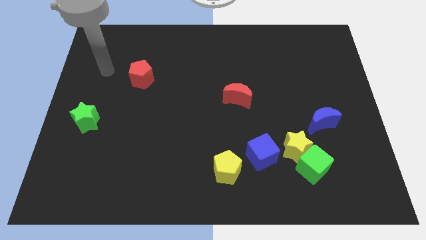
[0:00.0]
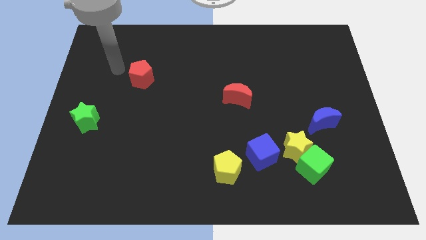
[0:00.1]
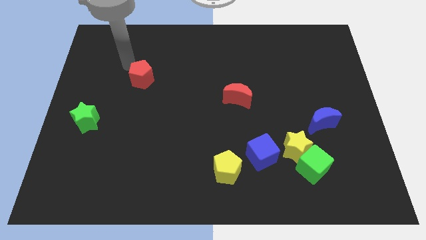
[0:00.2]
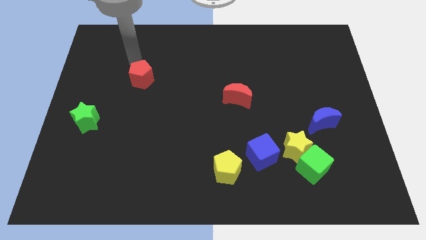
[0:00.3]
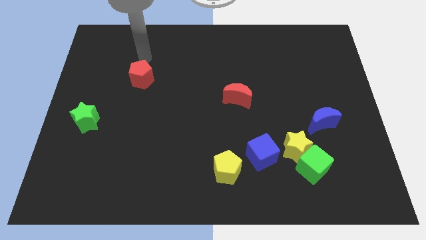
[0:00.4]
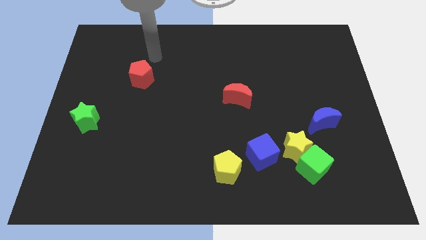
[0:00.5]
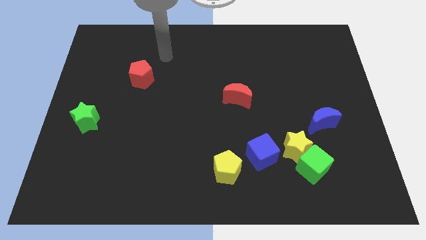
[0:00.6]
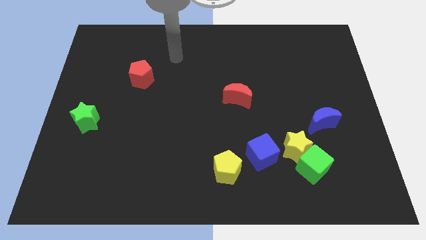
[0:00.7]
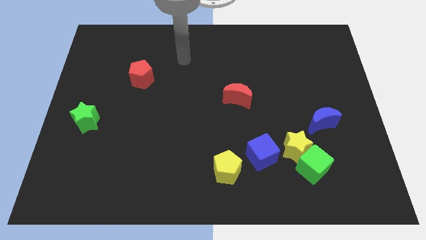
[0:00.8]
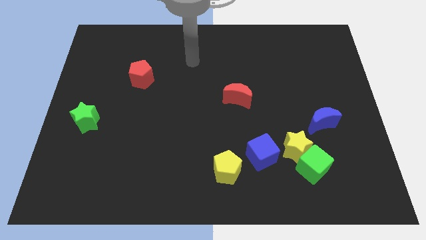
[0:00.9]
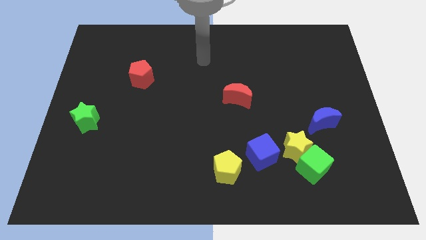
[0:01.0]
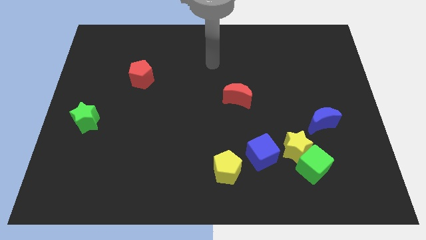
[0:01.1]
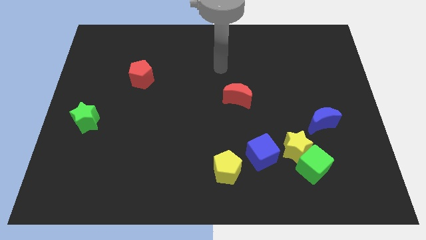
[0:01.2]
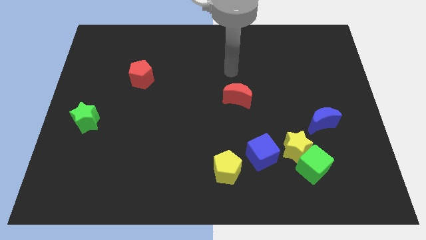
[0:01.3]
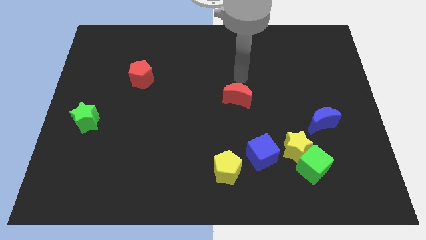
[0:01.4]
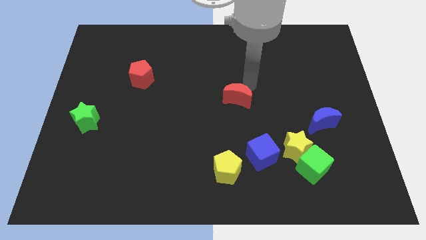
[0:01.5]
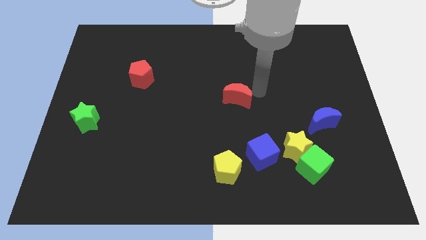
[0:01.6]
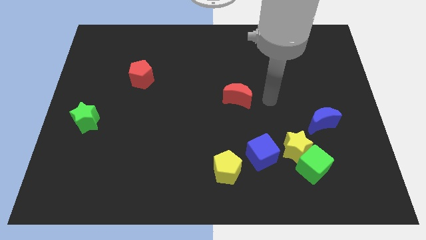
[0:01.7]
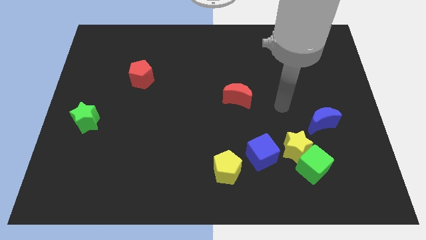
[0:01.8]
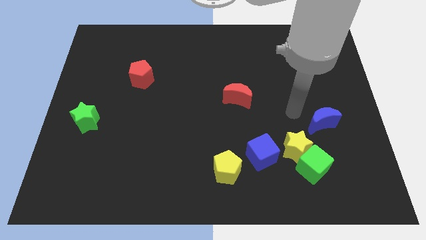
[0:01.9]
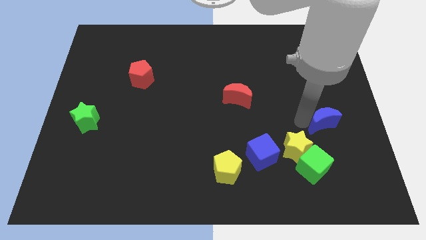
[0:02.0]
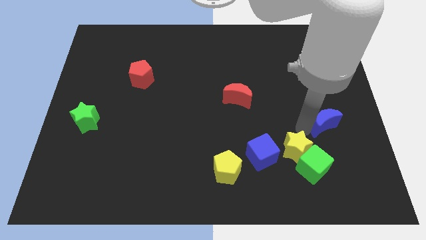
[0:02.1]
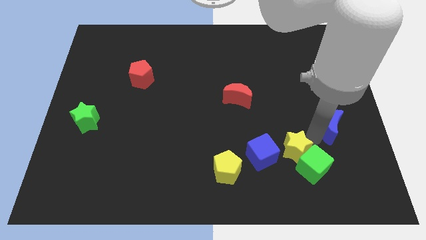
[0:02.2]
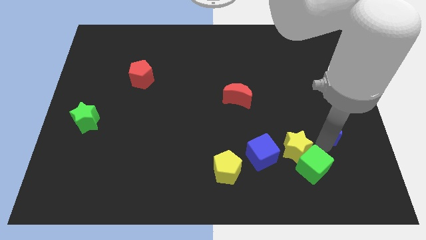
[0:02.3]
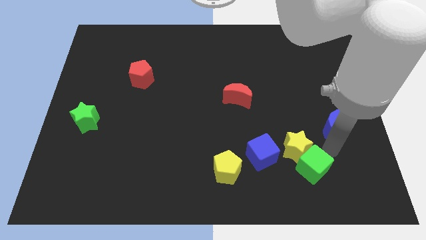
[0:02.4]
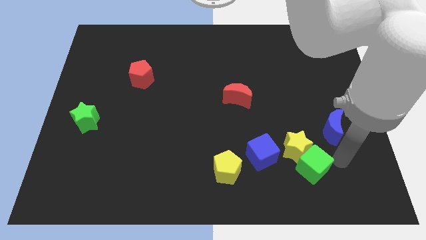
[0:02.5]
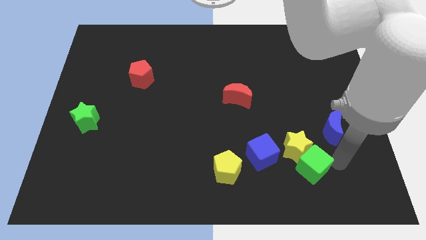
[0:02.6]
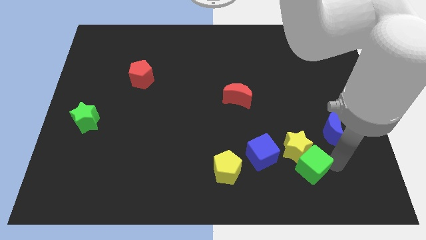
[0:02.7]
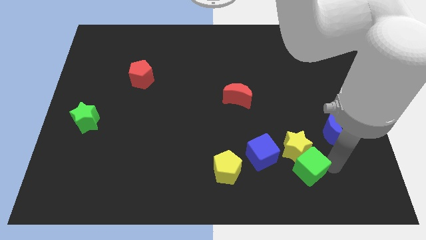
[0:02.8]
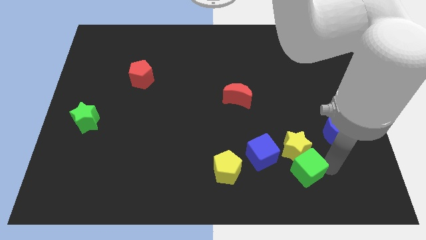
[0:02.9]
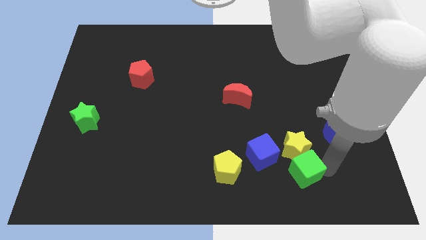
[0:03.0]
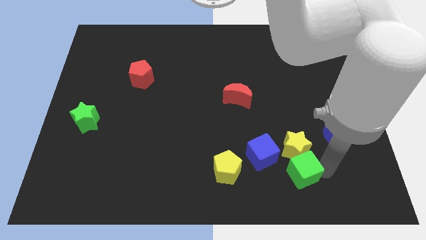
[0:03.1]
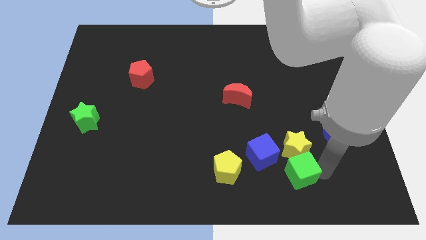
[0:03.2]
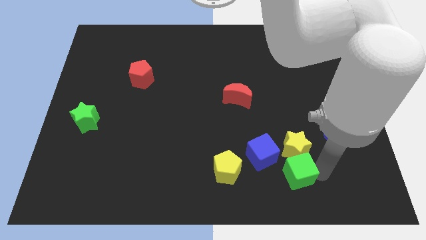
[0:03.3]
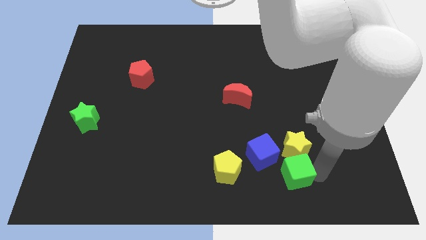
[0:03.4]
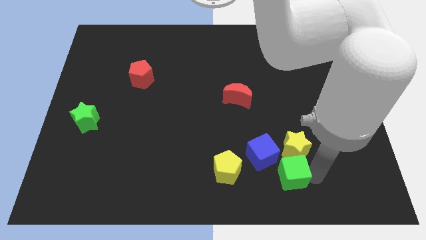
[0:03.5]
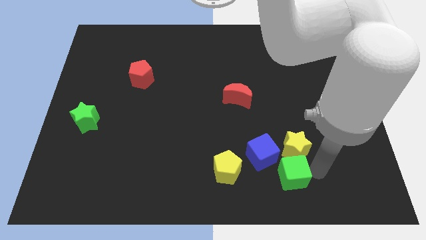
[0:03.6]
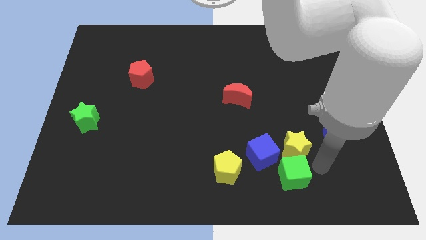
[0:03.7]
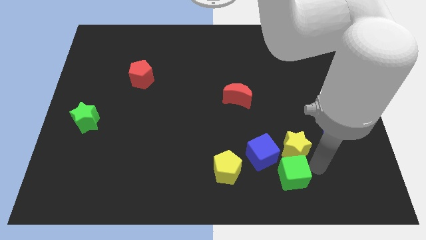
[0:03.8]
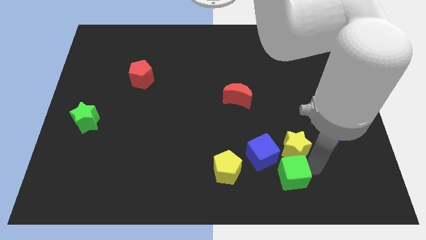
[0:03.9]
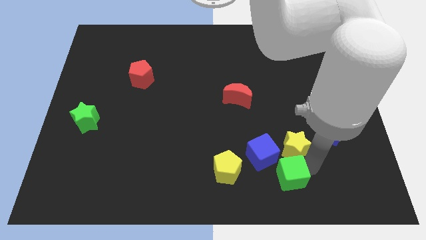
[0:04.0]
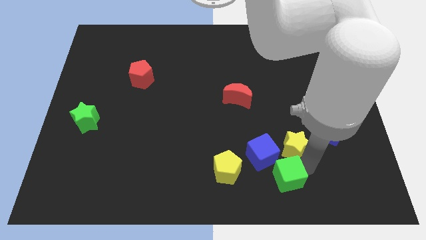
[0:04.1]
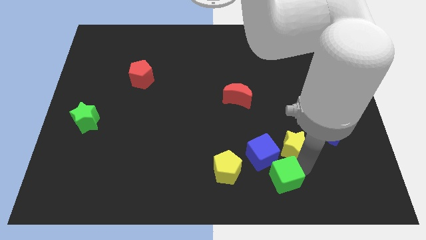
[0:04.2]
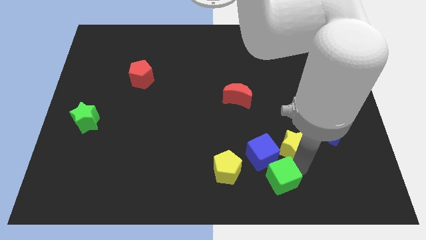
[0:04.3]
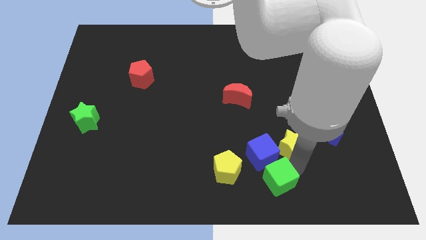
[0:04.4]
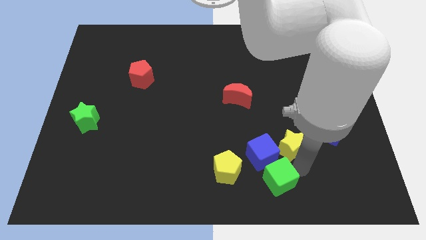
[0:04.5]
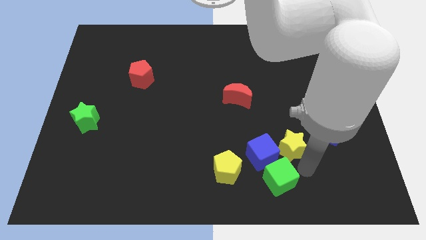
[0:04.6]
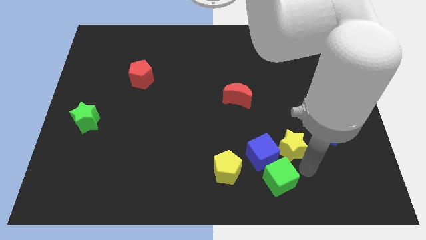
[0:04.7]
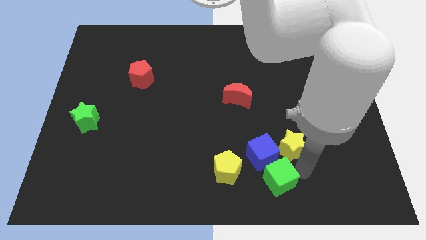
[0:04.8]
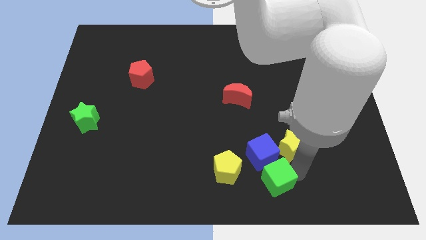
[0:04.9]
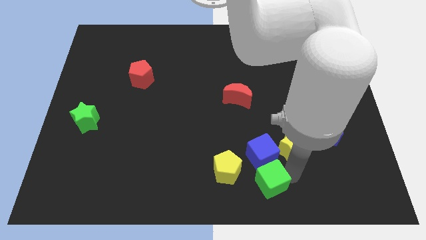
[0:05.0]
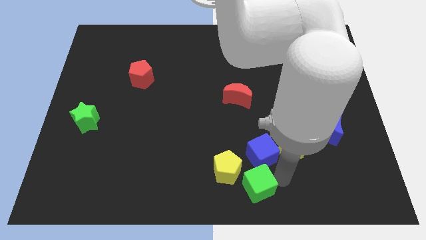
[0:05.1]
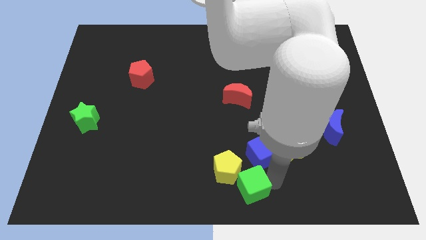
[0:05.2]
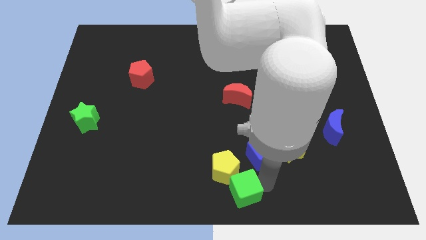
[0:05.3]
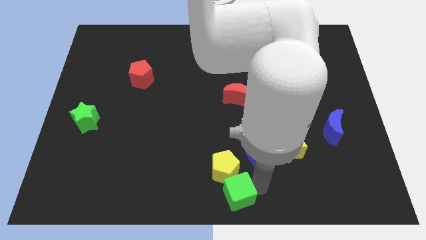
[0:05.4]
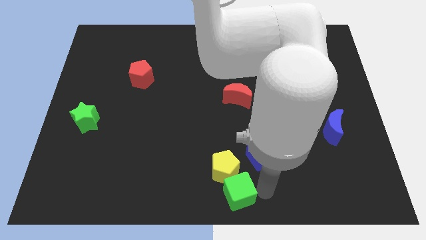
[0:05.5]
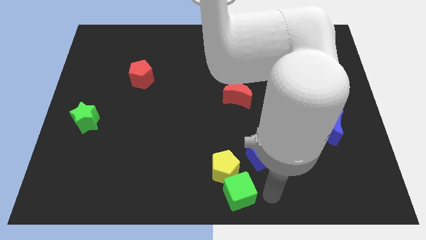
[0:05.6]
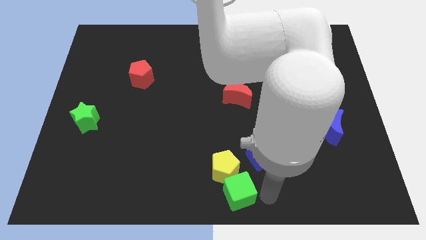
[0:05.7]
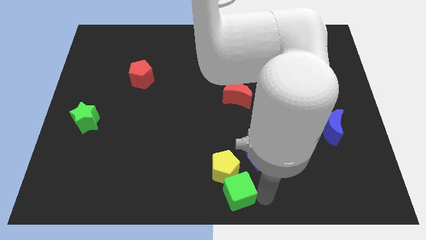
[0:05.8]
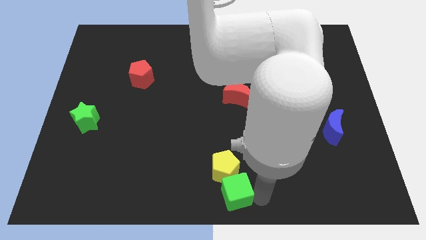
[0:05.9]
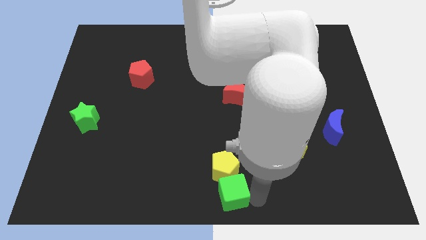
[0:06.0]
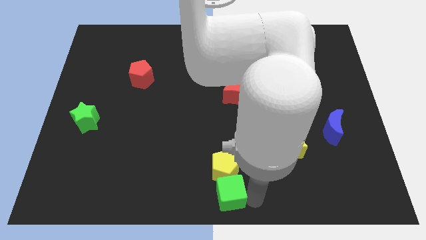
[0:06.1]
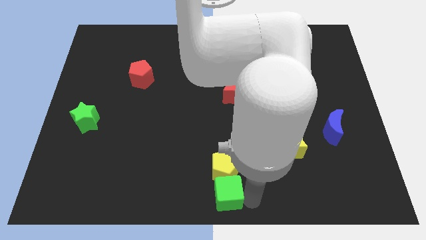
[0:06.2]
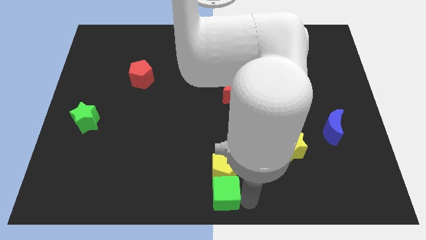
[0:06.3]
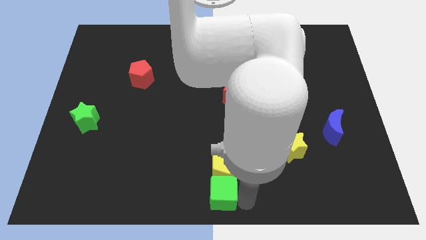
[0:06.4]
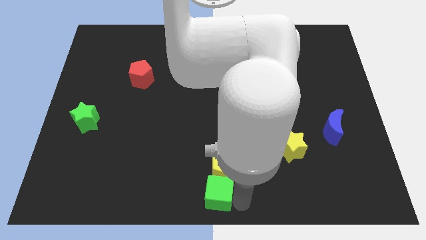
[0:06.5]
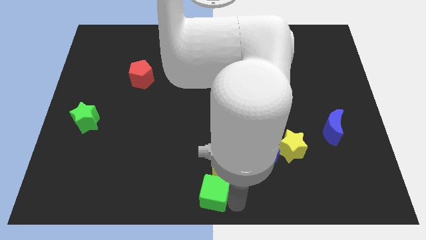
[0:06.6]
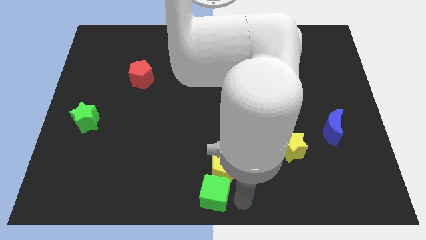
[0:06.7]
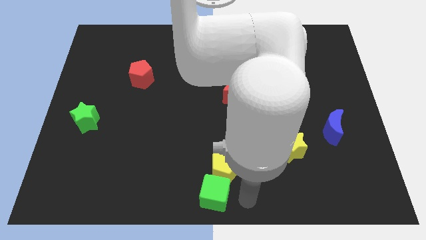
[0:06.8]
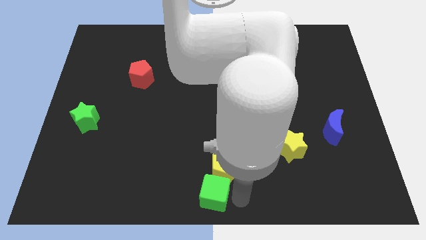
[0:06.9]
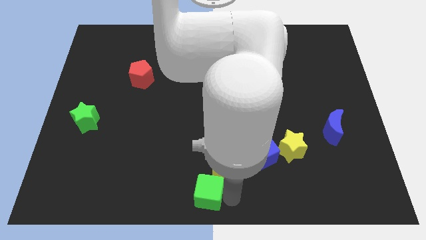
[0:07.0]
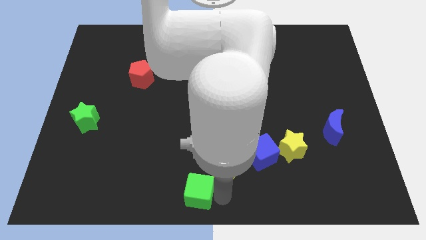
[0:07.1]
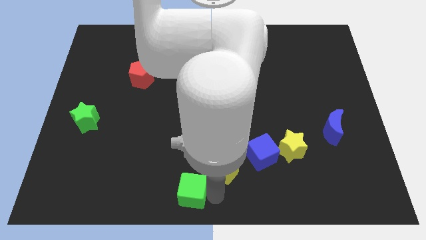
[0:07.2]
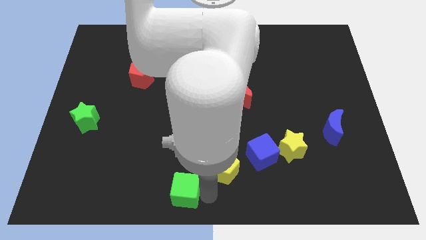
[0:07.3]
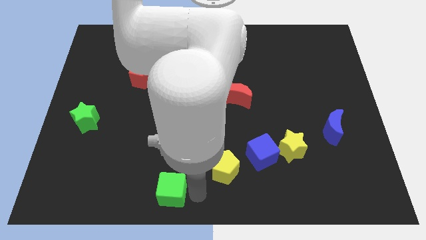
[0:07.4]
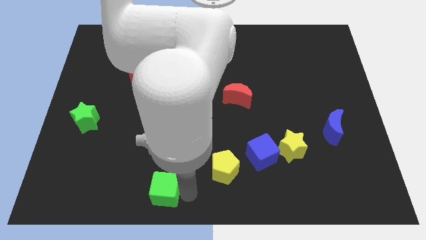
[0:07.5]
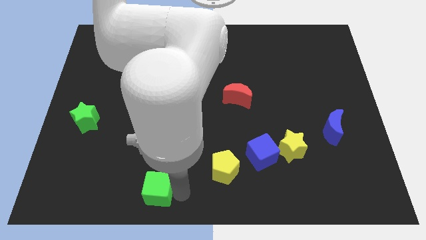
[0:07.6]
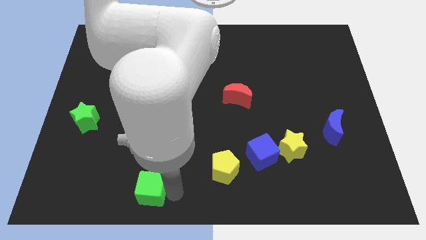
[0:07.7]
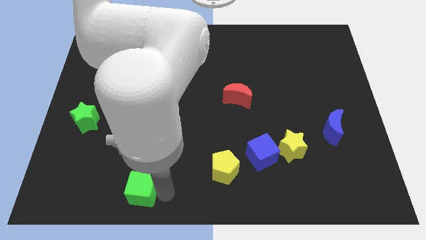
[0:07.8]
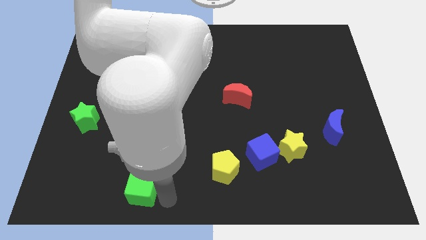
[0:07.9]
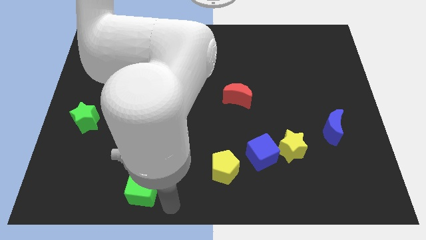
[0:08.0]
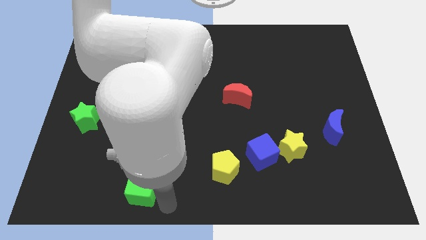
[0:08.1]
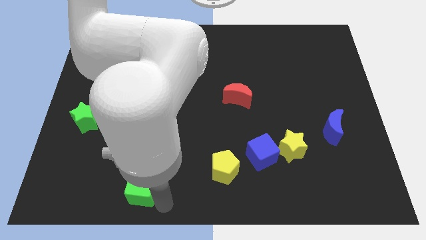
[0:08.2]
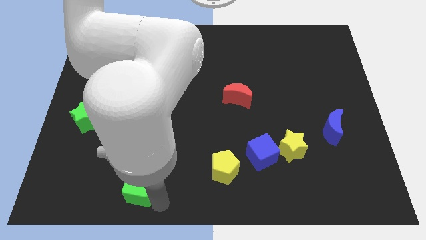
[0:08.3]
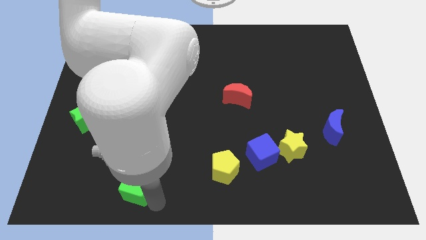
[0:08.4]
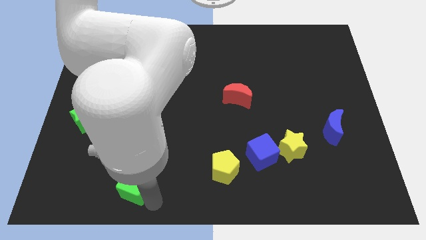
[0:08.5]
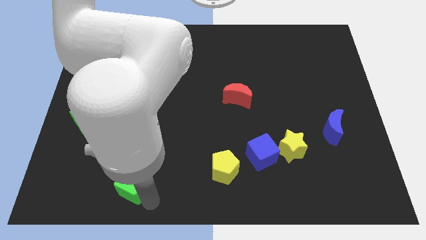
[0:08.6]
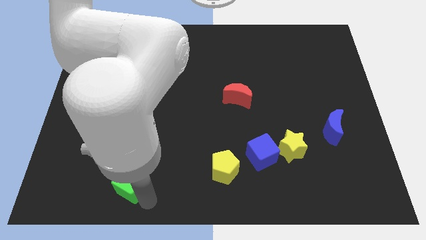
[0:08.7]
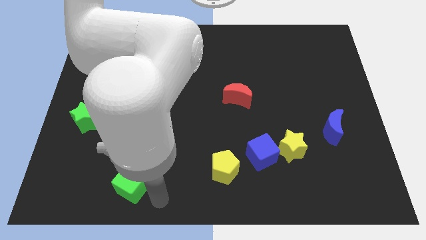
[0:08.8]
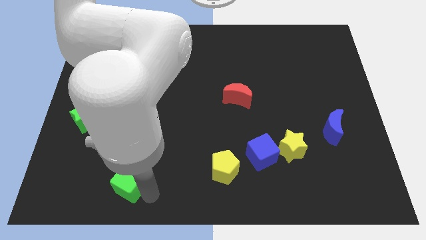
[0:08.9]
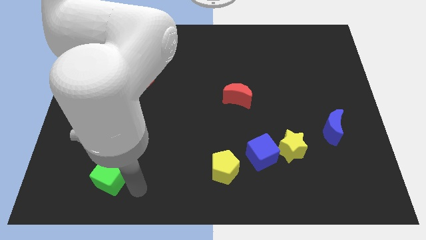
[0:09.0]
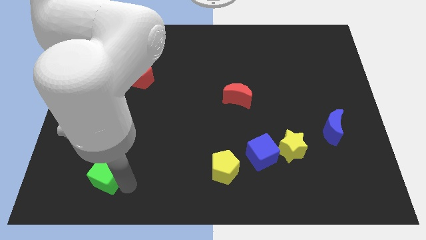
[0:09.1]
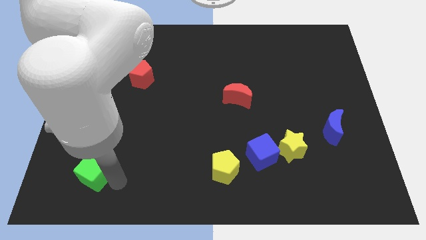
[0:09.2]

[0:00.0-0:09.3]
slide the green cube to the bottom of the green star
